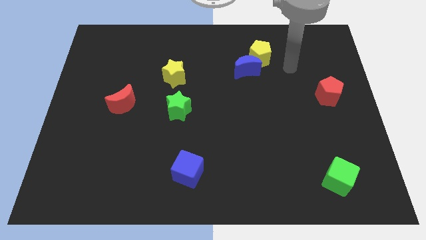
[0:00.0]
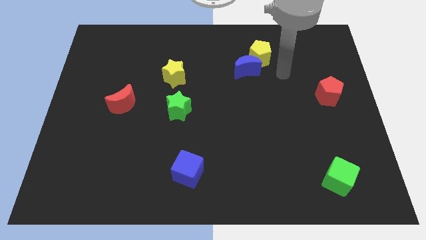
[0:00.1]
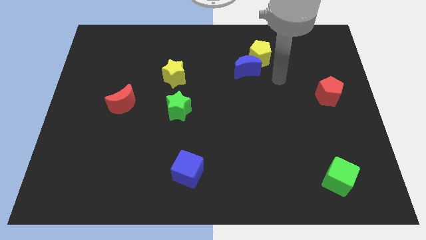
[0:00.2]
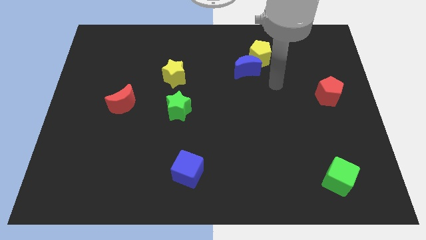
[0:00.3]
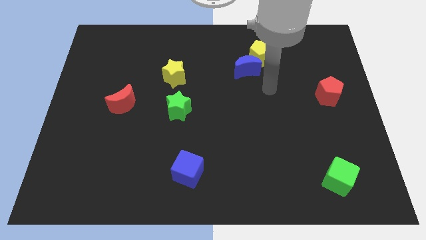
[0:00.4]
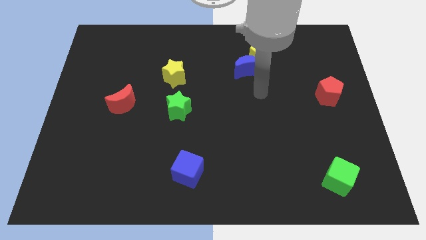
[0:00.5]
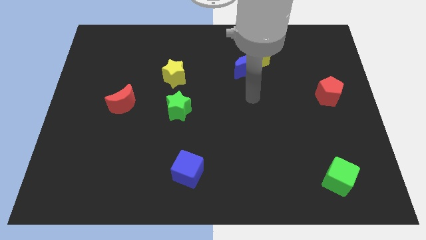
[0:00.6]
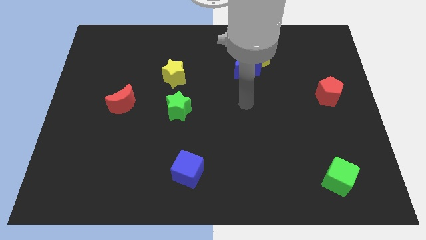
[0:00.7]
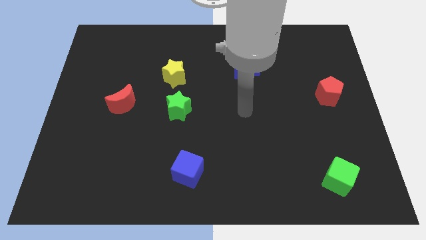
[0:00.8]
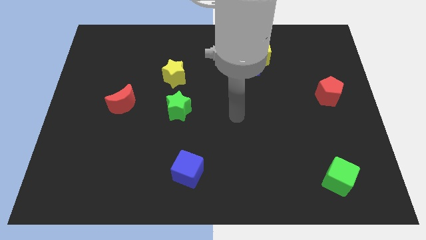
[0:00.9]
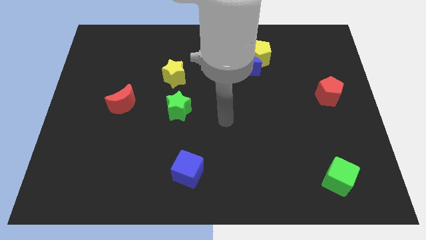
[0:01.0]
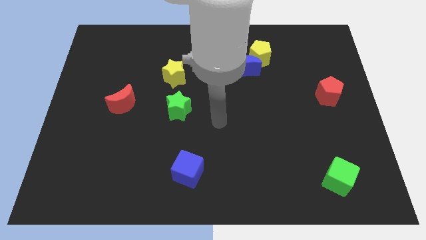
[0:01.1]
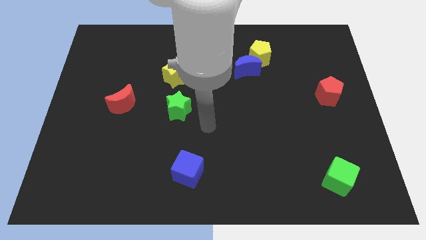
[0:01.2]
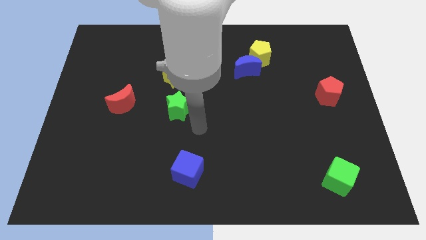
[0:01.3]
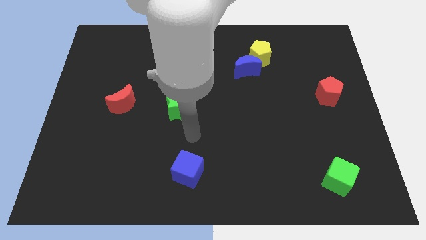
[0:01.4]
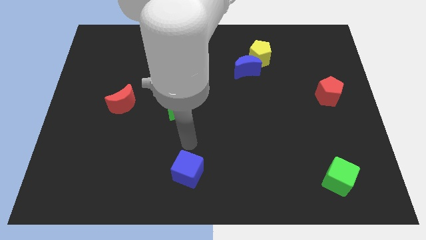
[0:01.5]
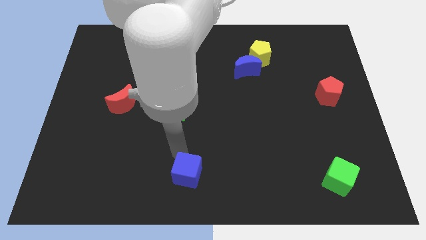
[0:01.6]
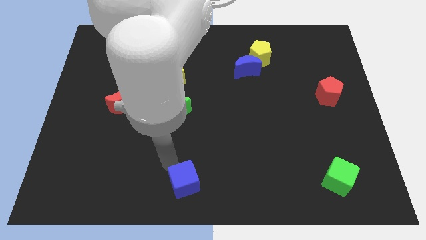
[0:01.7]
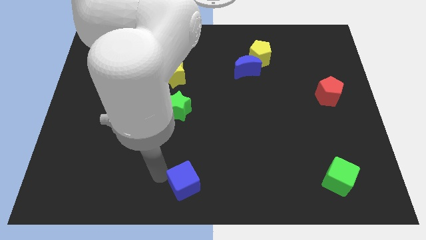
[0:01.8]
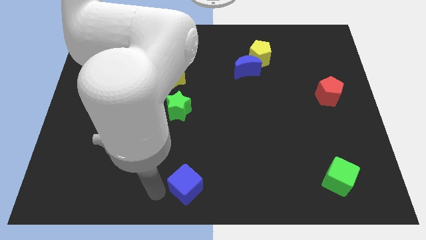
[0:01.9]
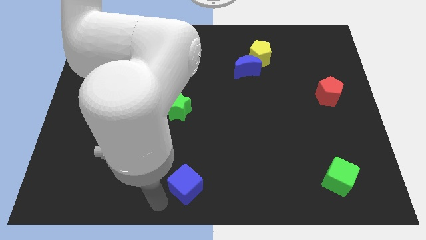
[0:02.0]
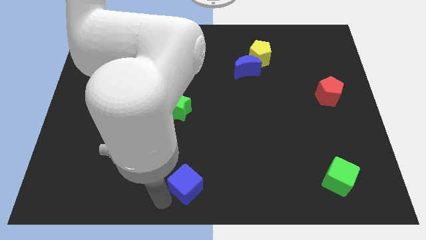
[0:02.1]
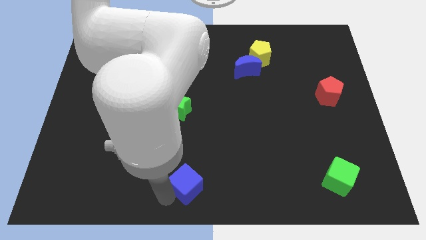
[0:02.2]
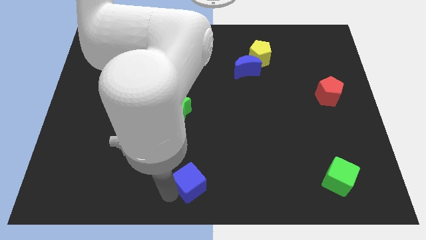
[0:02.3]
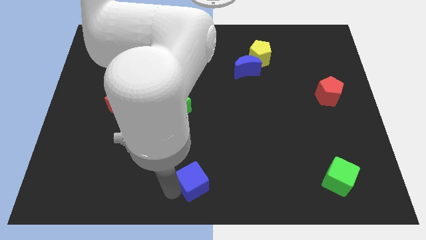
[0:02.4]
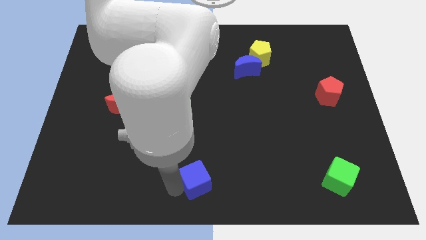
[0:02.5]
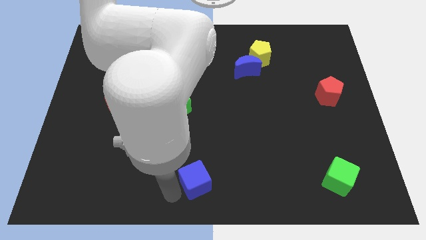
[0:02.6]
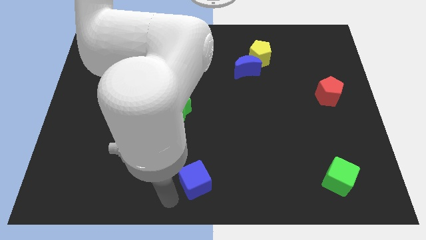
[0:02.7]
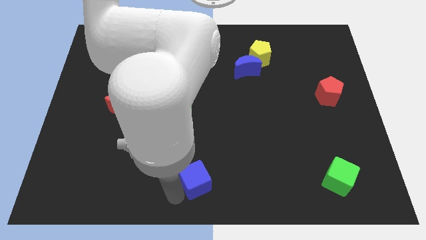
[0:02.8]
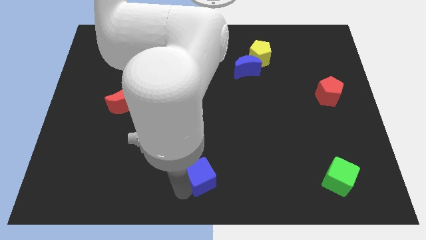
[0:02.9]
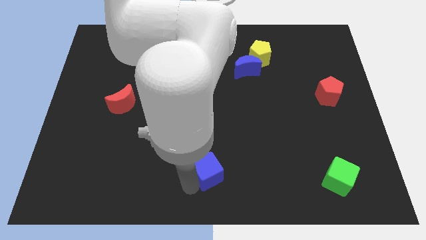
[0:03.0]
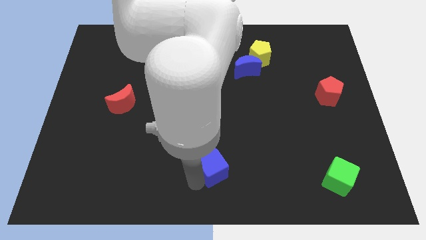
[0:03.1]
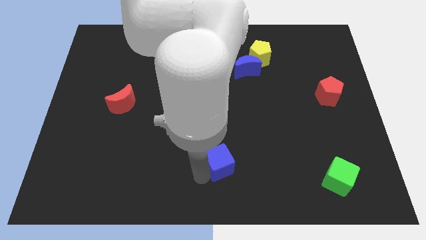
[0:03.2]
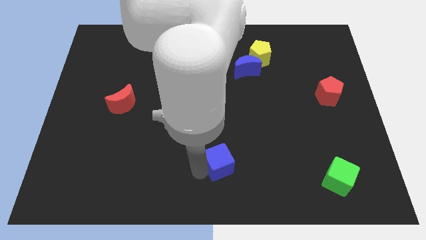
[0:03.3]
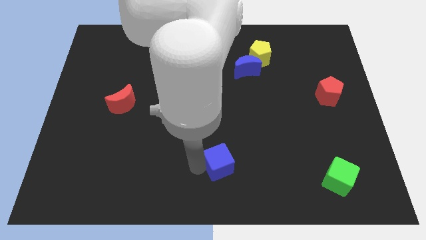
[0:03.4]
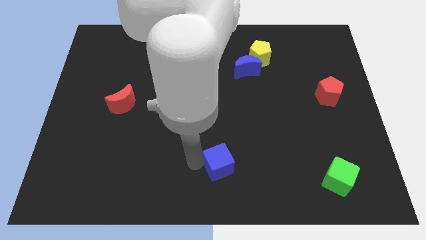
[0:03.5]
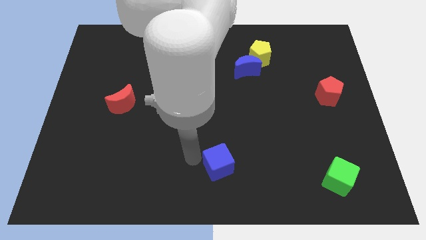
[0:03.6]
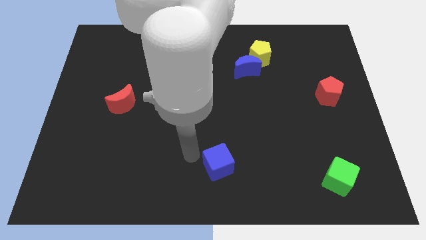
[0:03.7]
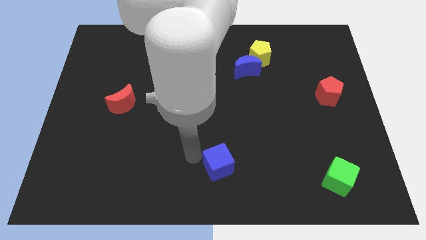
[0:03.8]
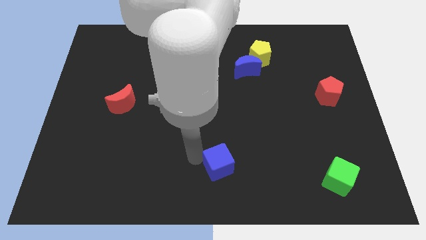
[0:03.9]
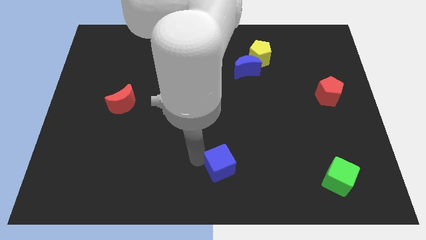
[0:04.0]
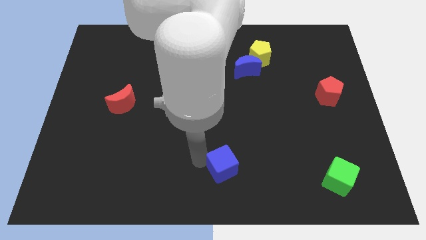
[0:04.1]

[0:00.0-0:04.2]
slide the blue cube a little bit to the right

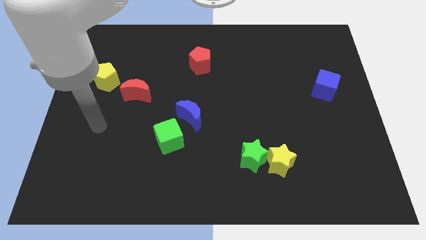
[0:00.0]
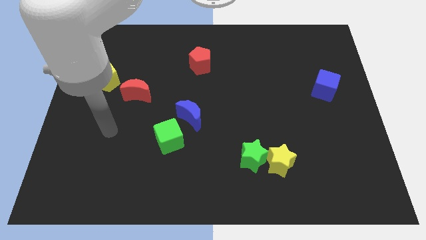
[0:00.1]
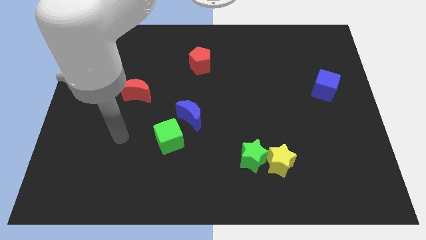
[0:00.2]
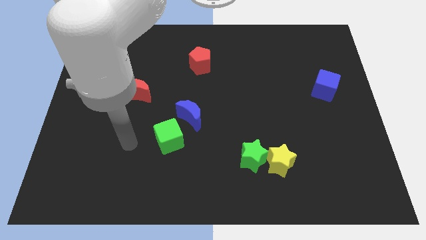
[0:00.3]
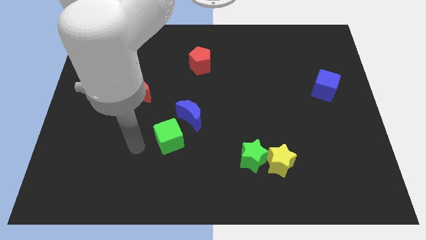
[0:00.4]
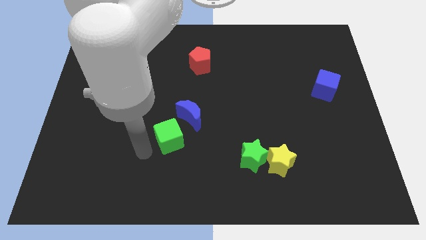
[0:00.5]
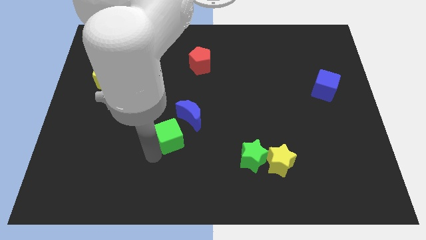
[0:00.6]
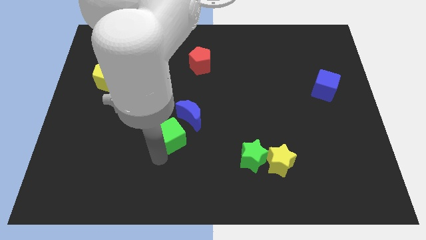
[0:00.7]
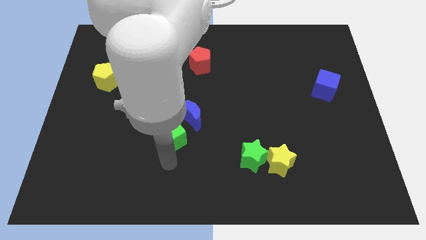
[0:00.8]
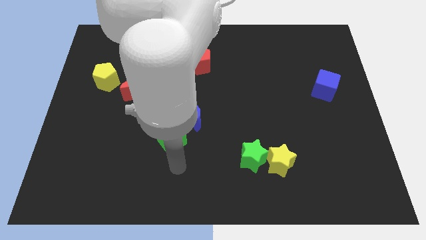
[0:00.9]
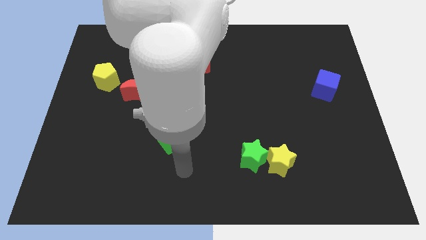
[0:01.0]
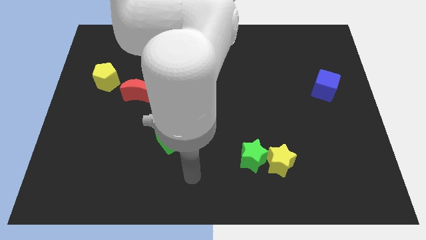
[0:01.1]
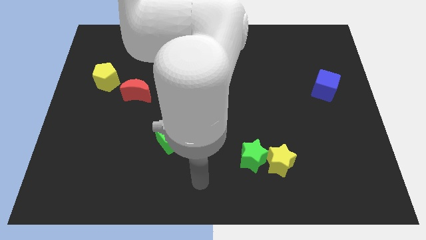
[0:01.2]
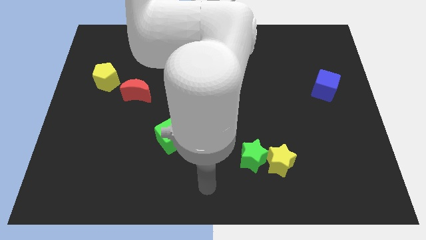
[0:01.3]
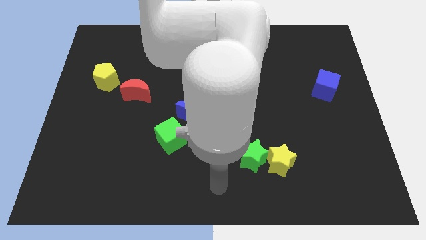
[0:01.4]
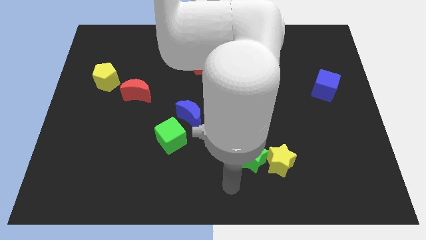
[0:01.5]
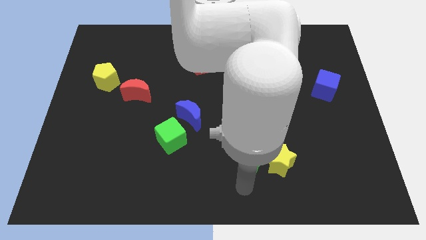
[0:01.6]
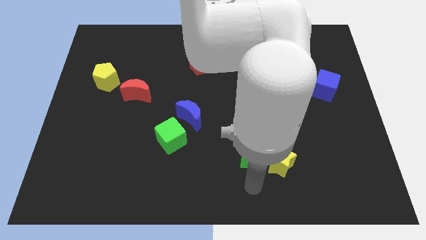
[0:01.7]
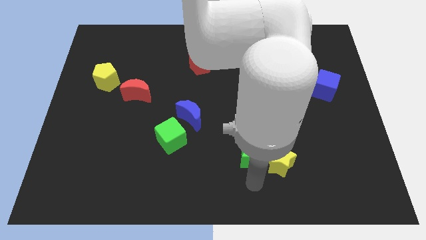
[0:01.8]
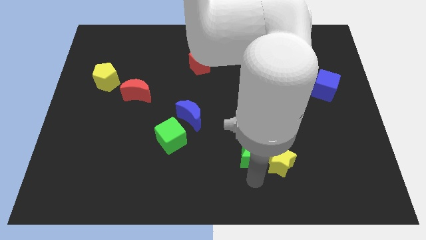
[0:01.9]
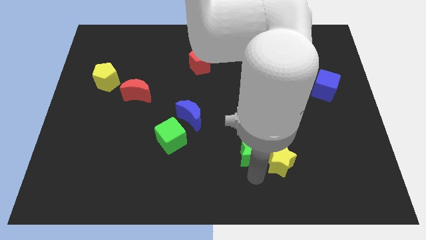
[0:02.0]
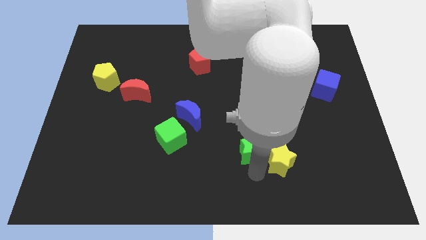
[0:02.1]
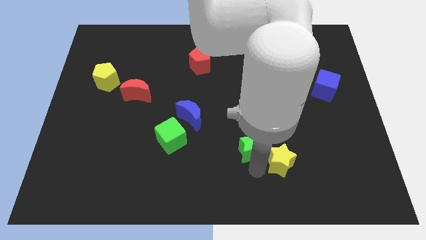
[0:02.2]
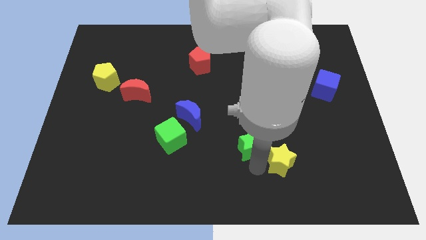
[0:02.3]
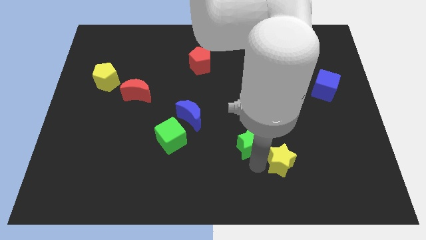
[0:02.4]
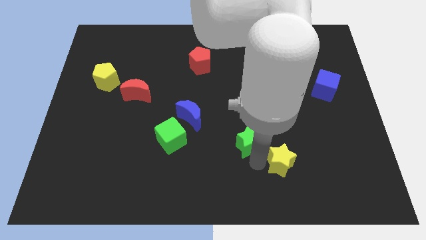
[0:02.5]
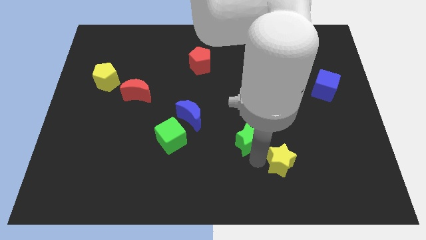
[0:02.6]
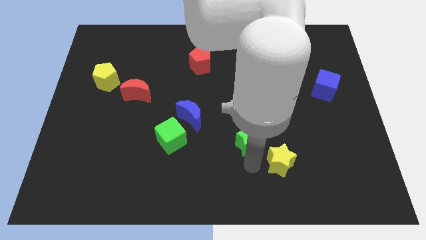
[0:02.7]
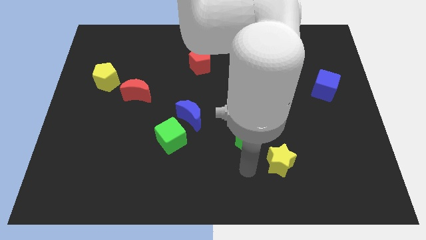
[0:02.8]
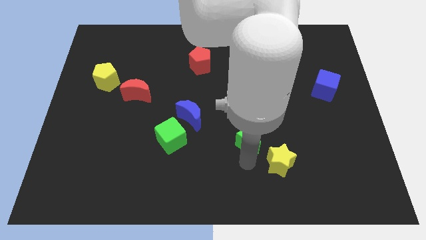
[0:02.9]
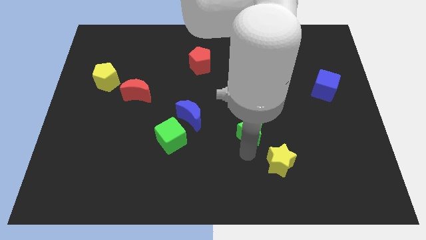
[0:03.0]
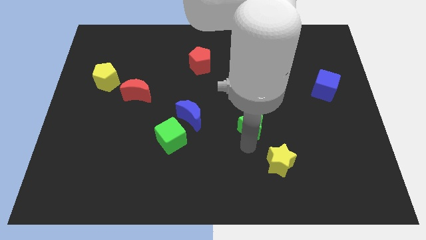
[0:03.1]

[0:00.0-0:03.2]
slightly move the green star up

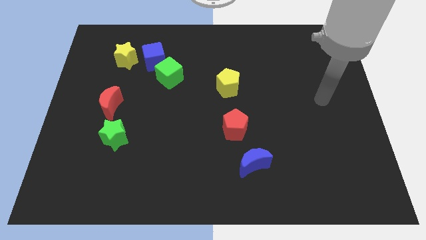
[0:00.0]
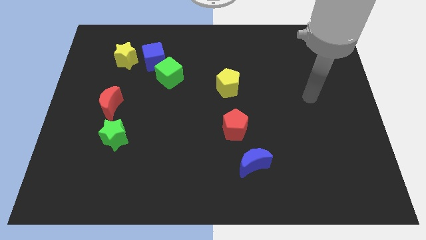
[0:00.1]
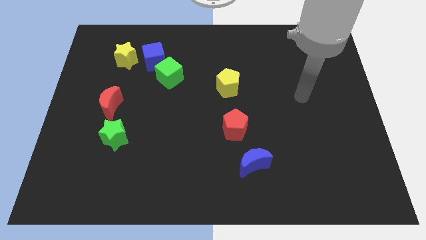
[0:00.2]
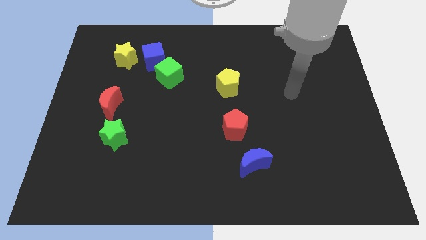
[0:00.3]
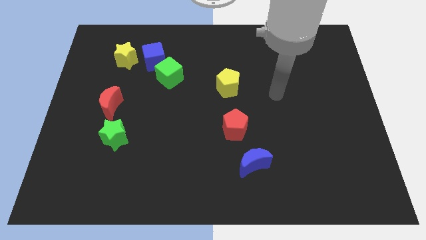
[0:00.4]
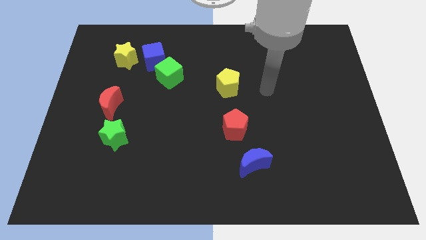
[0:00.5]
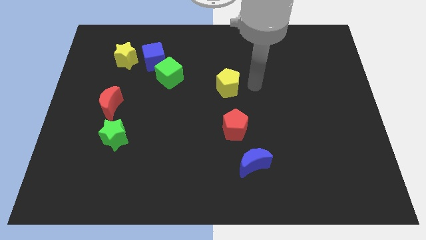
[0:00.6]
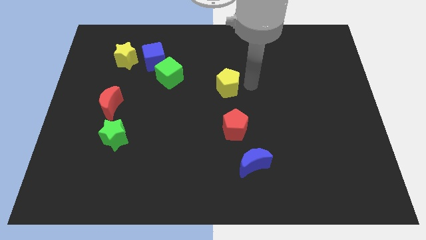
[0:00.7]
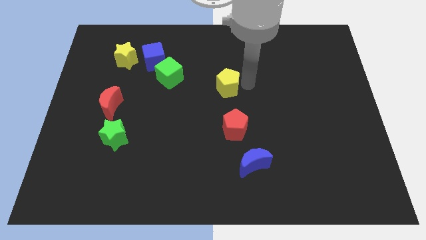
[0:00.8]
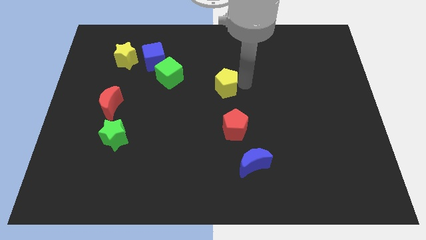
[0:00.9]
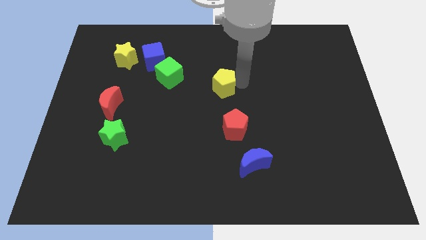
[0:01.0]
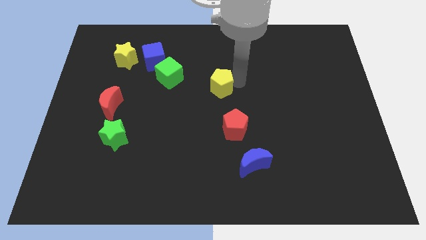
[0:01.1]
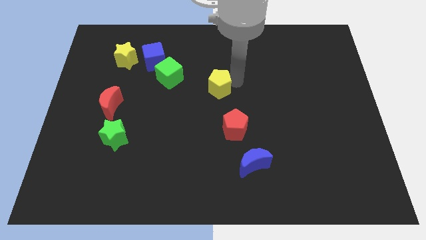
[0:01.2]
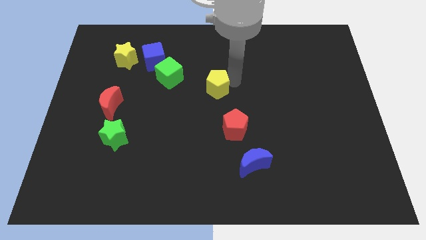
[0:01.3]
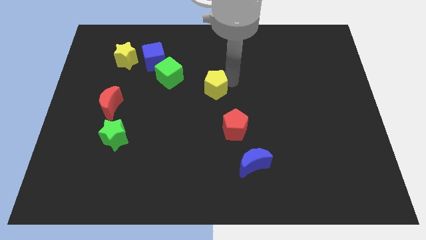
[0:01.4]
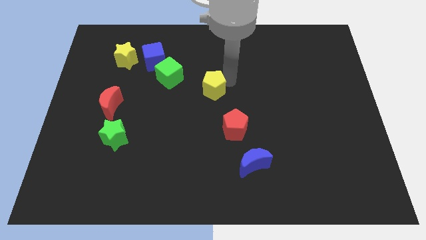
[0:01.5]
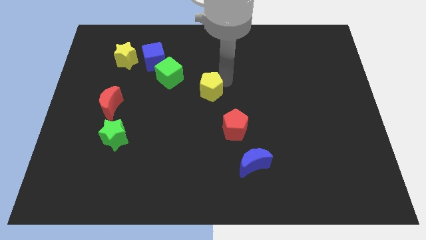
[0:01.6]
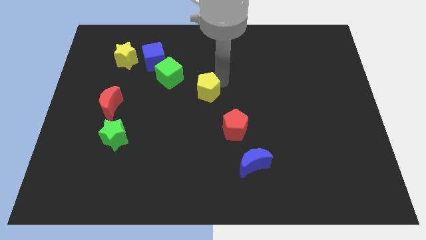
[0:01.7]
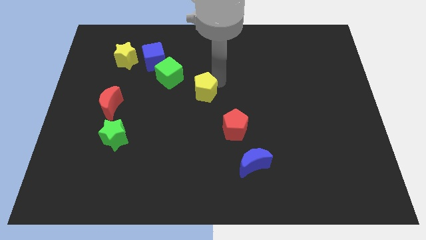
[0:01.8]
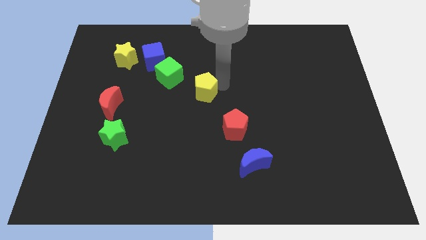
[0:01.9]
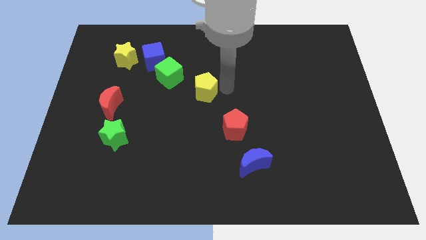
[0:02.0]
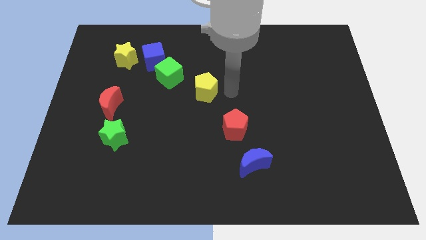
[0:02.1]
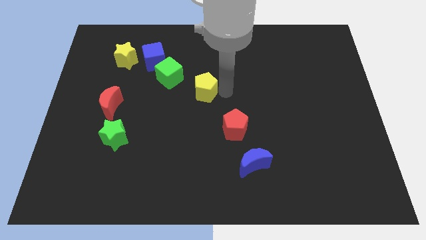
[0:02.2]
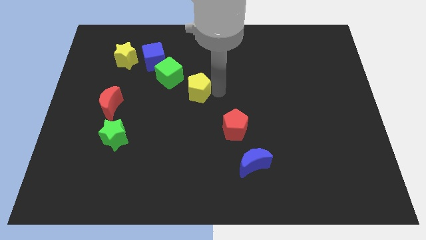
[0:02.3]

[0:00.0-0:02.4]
slightly slide the yellow pentagon to the left
